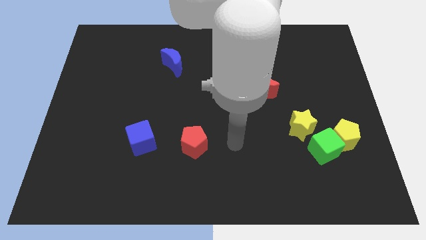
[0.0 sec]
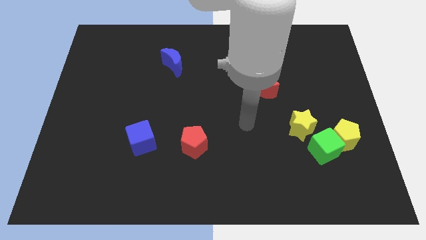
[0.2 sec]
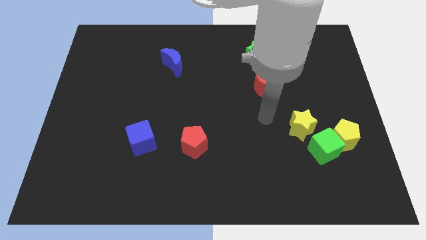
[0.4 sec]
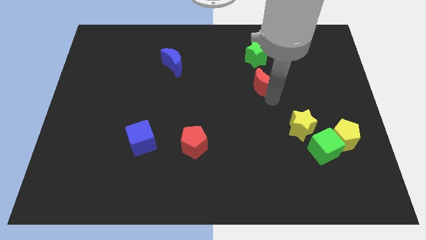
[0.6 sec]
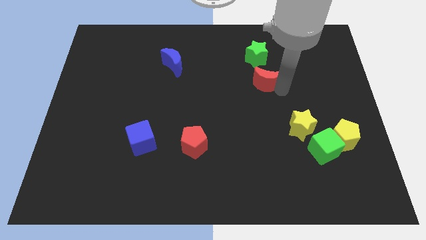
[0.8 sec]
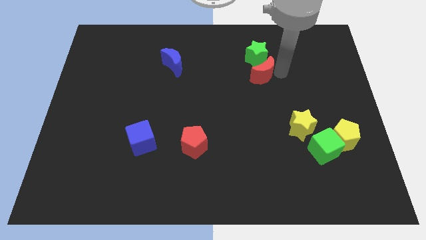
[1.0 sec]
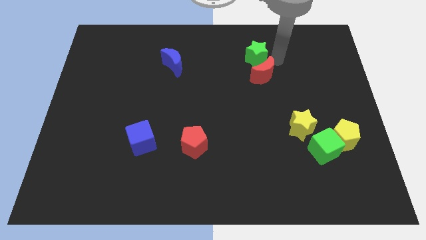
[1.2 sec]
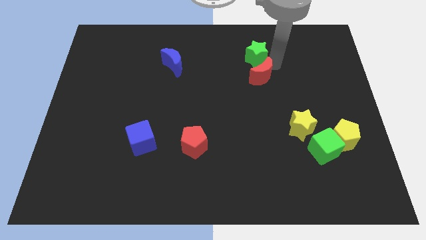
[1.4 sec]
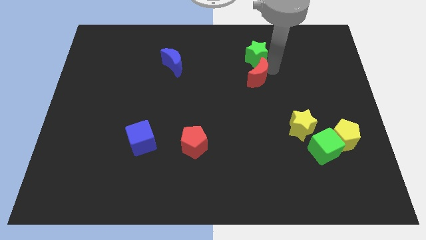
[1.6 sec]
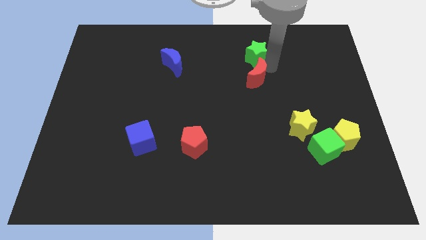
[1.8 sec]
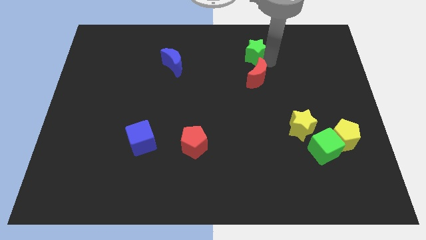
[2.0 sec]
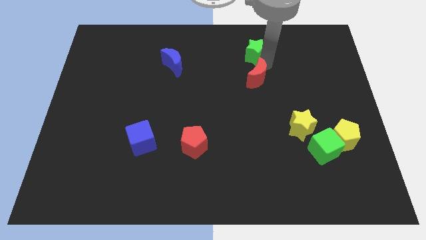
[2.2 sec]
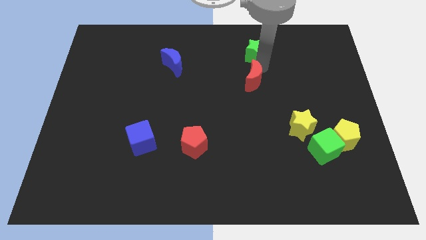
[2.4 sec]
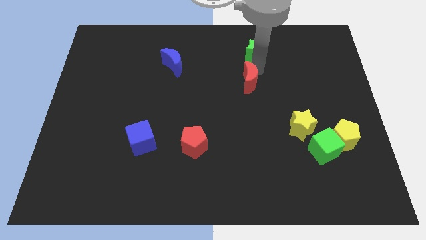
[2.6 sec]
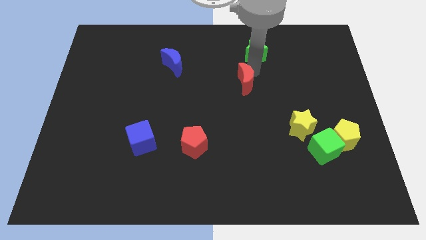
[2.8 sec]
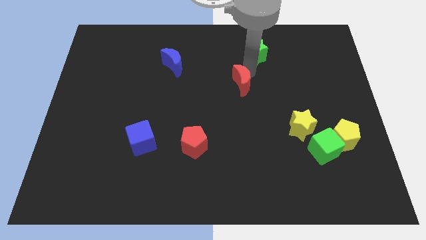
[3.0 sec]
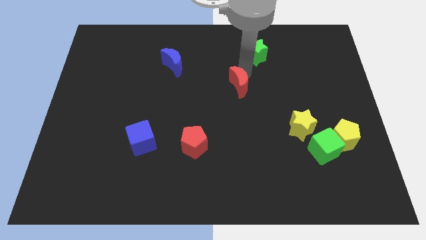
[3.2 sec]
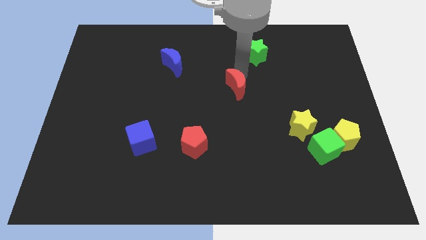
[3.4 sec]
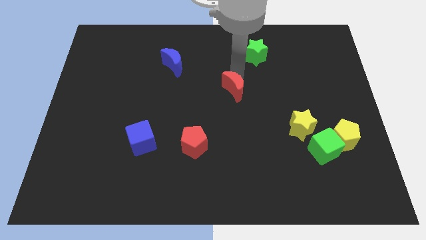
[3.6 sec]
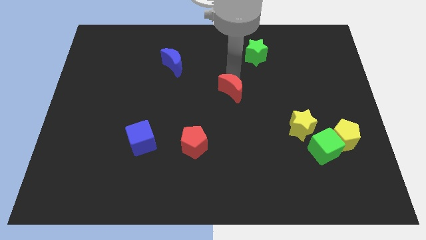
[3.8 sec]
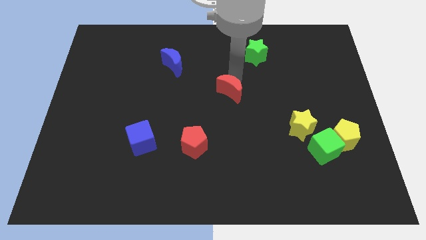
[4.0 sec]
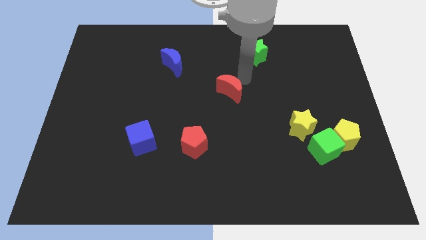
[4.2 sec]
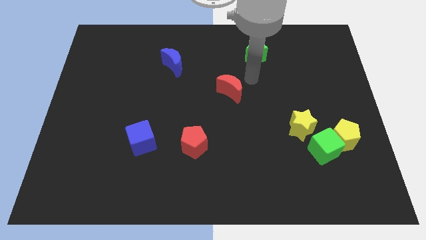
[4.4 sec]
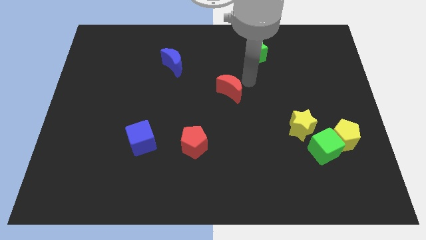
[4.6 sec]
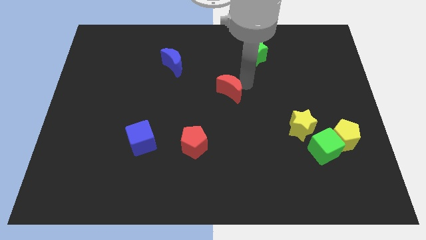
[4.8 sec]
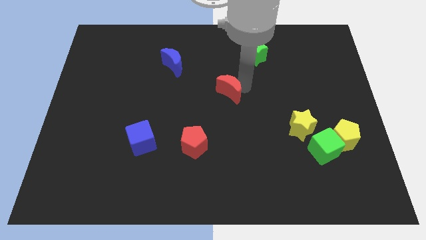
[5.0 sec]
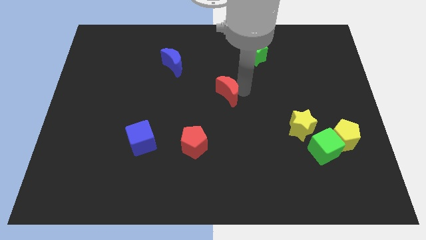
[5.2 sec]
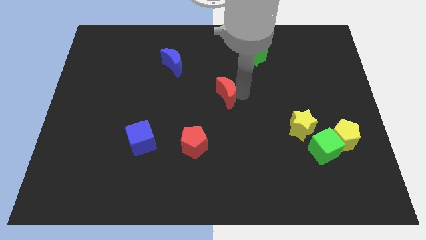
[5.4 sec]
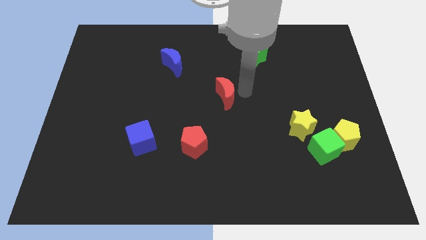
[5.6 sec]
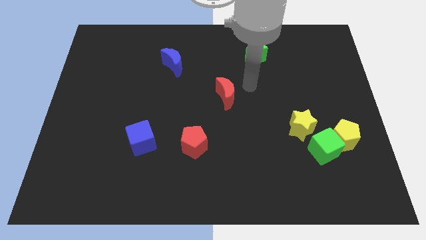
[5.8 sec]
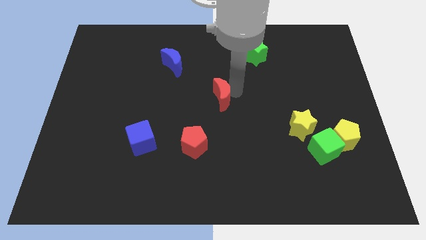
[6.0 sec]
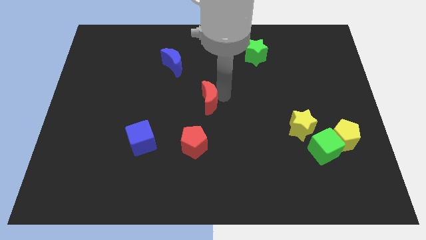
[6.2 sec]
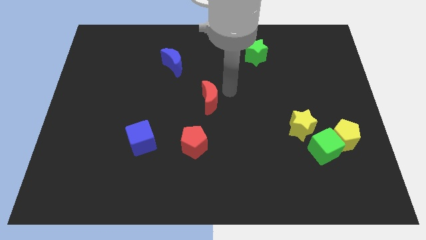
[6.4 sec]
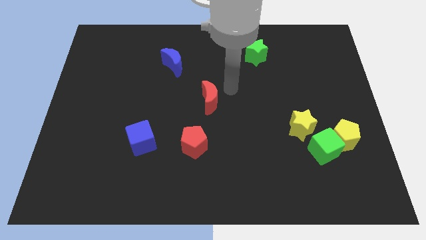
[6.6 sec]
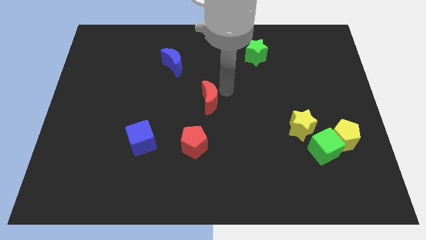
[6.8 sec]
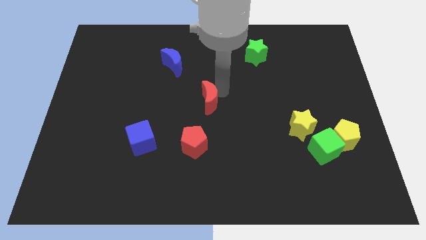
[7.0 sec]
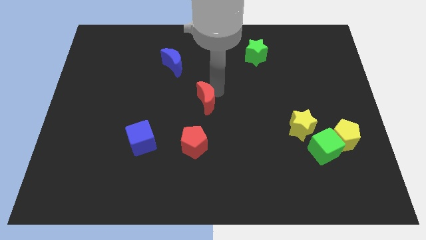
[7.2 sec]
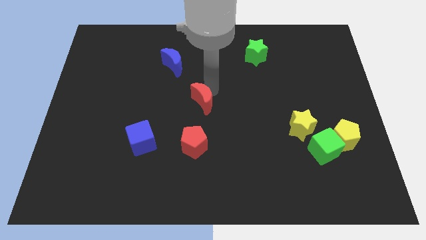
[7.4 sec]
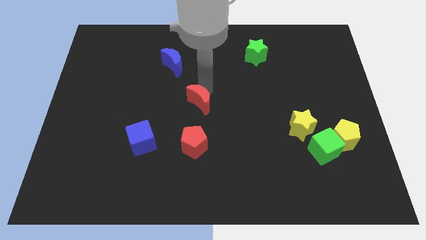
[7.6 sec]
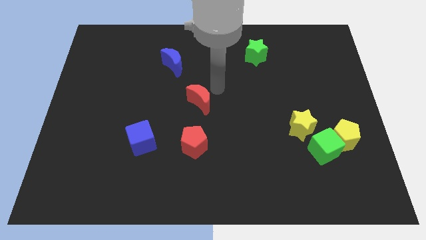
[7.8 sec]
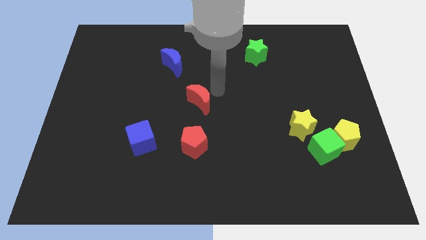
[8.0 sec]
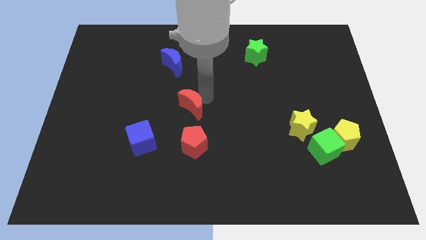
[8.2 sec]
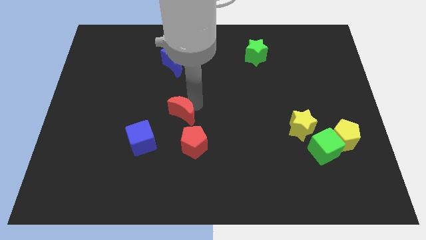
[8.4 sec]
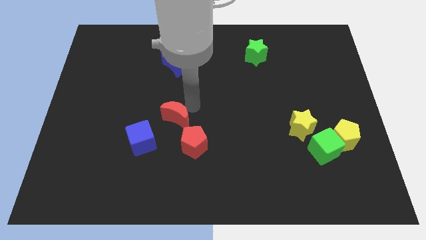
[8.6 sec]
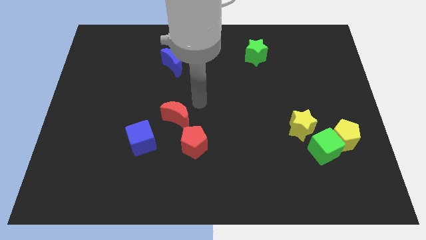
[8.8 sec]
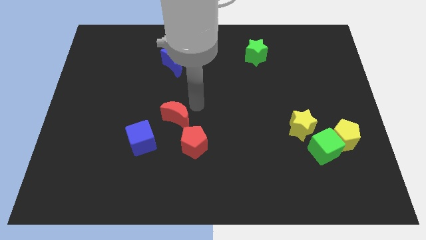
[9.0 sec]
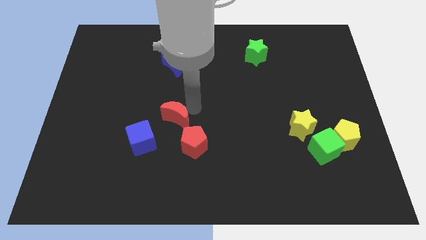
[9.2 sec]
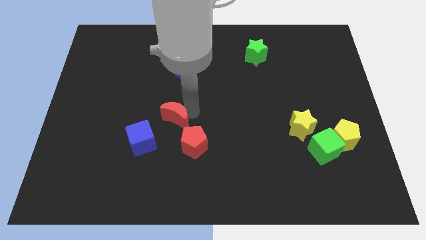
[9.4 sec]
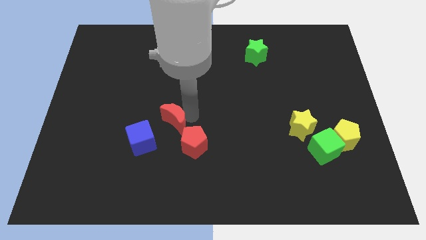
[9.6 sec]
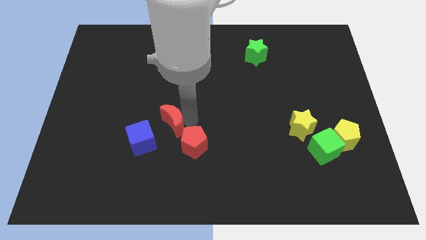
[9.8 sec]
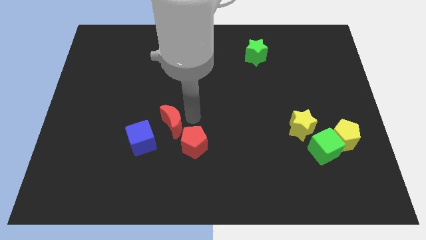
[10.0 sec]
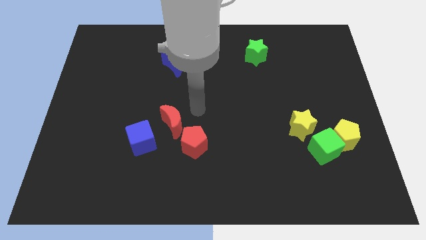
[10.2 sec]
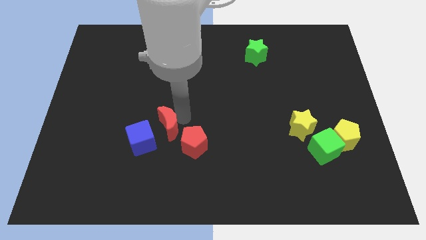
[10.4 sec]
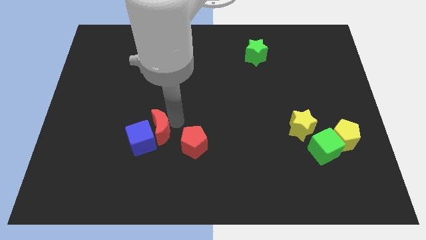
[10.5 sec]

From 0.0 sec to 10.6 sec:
put the red moon towards the blue cube

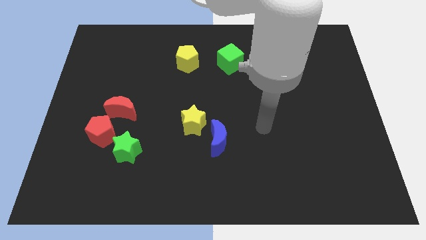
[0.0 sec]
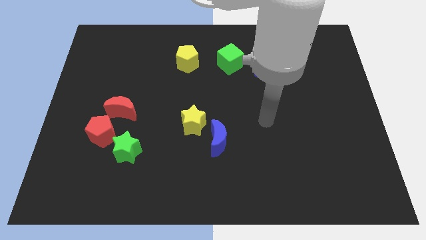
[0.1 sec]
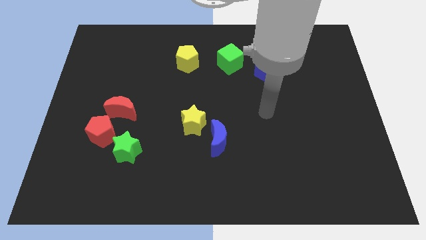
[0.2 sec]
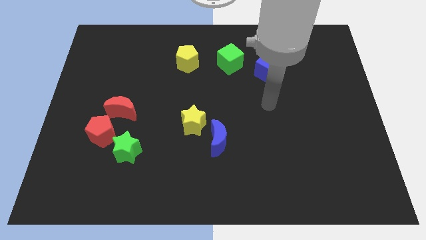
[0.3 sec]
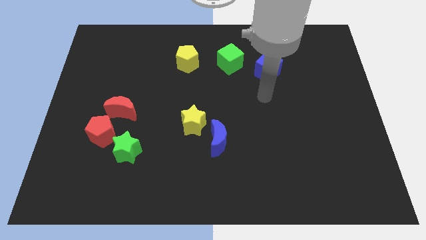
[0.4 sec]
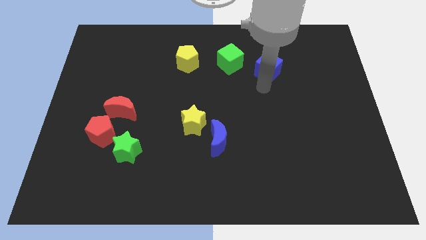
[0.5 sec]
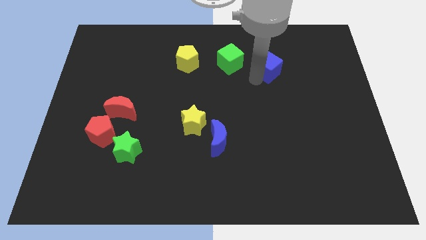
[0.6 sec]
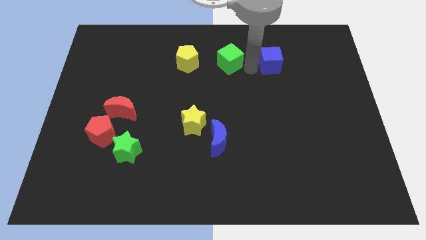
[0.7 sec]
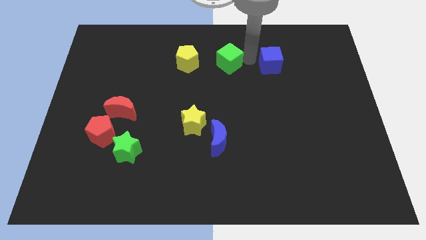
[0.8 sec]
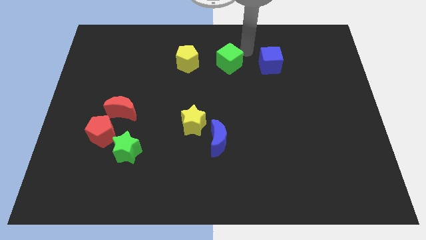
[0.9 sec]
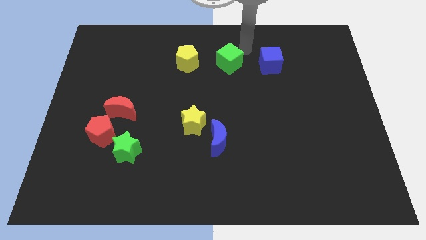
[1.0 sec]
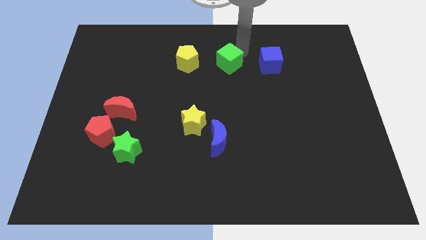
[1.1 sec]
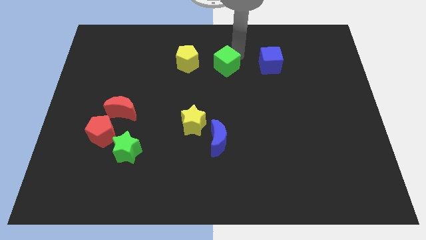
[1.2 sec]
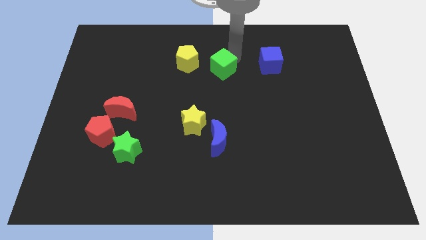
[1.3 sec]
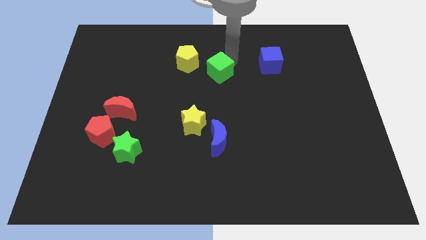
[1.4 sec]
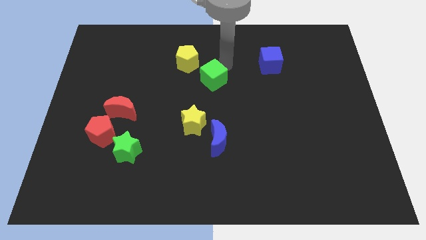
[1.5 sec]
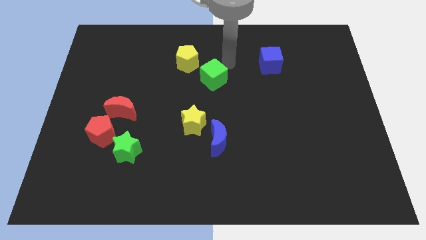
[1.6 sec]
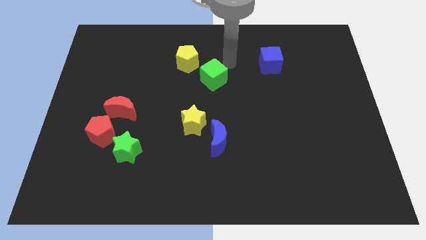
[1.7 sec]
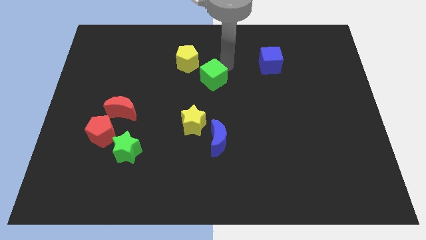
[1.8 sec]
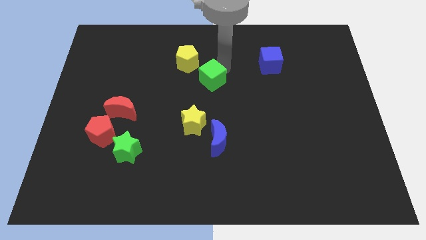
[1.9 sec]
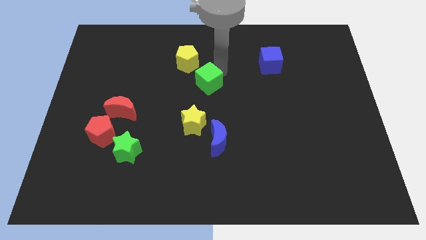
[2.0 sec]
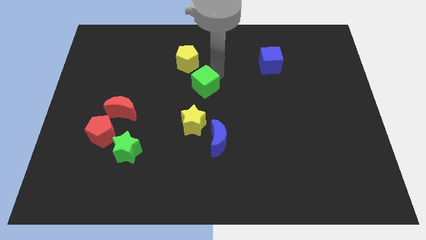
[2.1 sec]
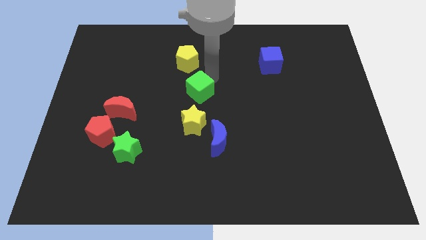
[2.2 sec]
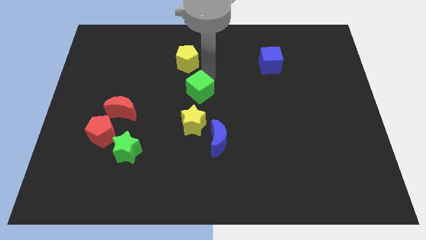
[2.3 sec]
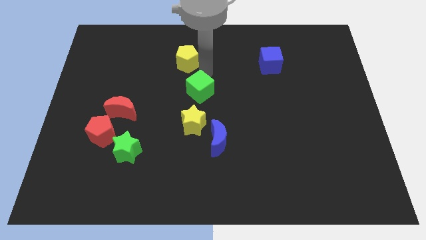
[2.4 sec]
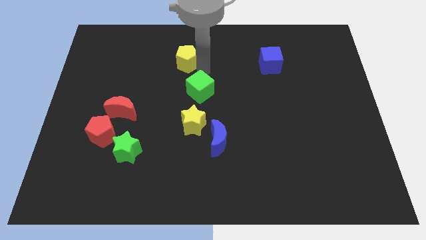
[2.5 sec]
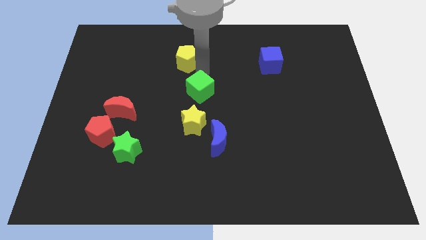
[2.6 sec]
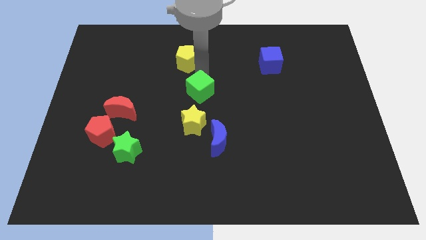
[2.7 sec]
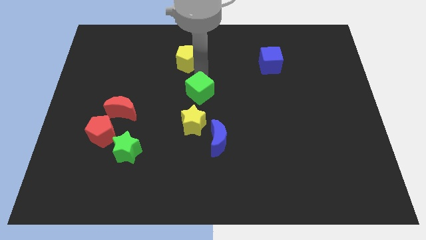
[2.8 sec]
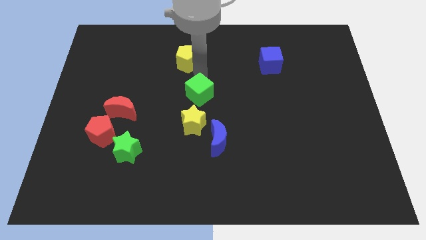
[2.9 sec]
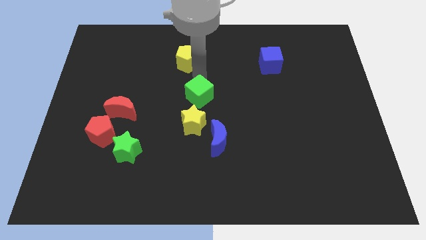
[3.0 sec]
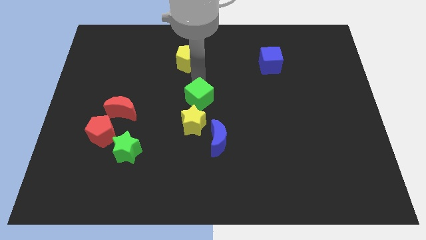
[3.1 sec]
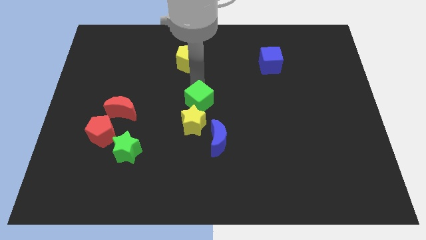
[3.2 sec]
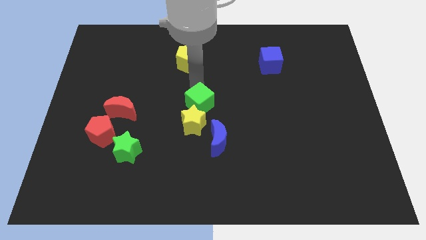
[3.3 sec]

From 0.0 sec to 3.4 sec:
put the green cube close to the yellow star
